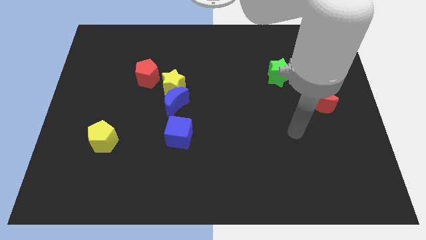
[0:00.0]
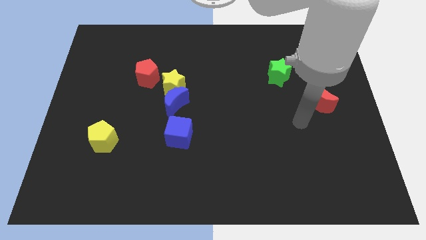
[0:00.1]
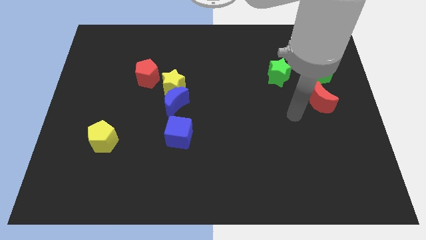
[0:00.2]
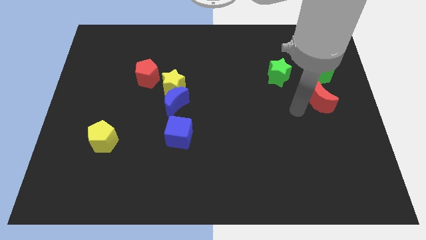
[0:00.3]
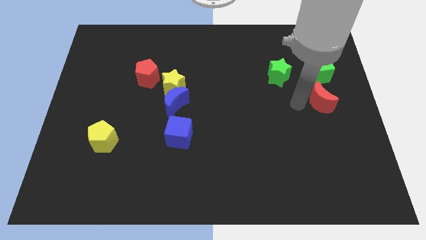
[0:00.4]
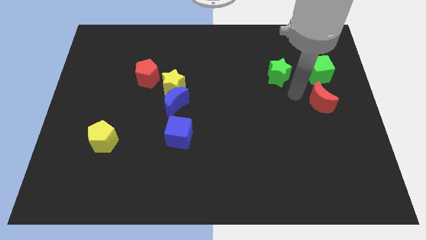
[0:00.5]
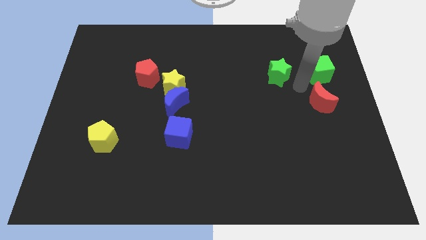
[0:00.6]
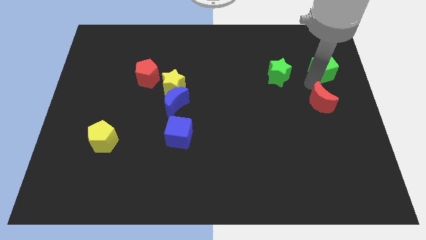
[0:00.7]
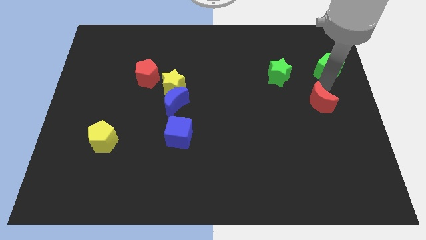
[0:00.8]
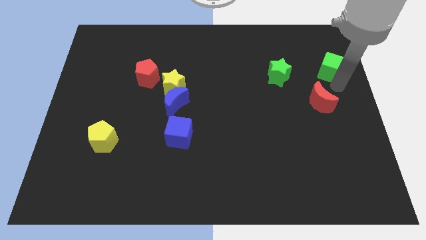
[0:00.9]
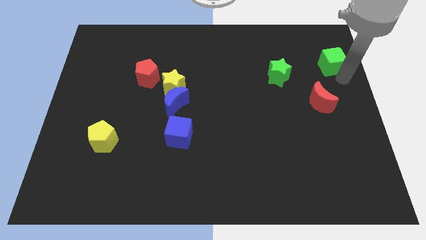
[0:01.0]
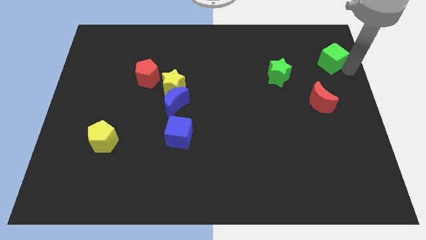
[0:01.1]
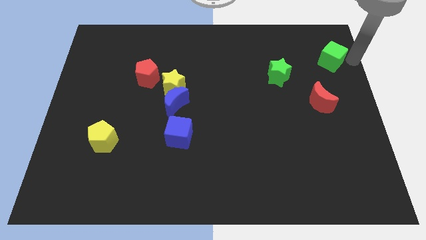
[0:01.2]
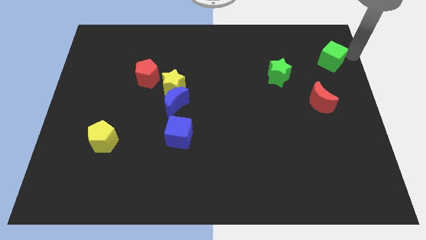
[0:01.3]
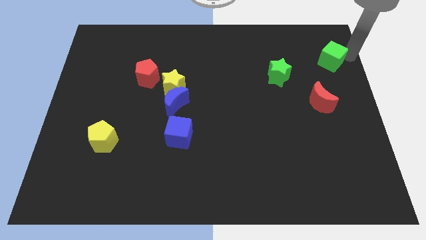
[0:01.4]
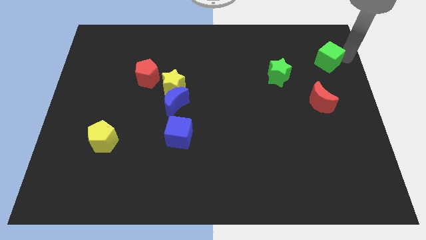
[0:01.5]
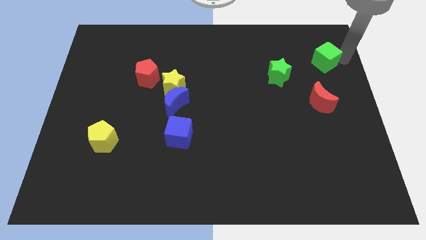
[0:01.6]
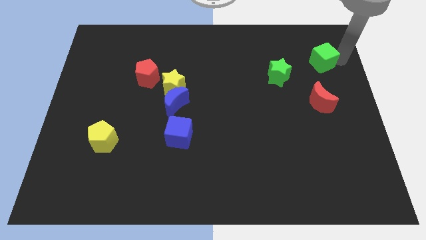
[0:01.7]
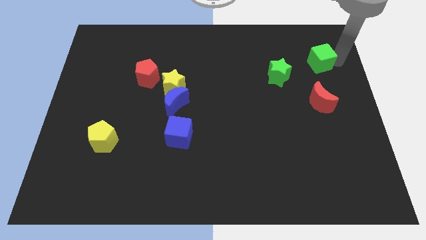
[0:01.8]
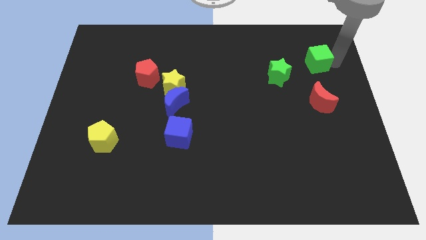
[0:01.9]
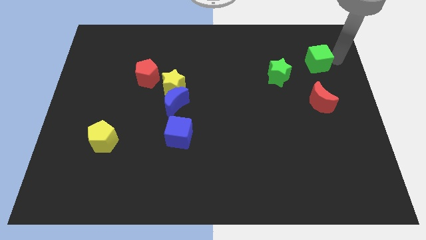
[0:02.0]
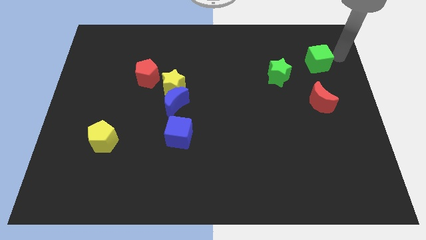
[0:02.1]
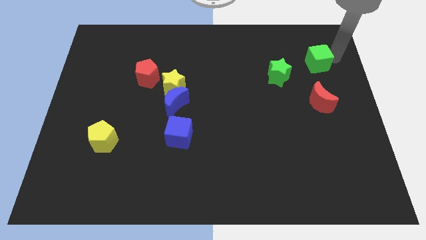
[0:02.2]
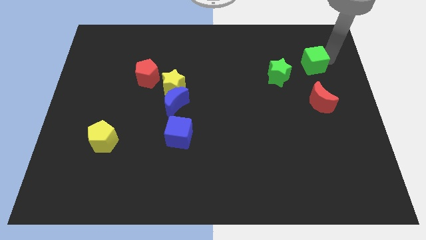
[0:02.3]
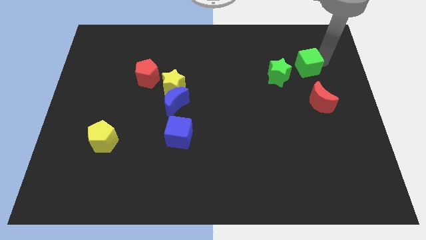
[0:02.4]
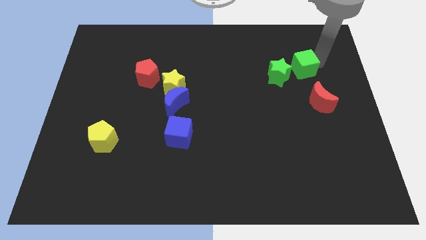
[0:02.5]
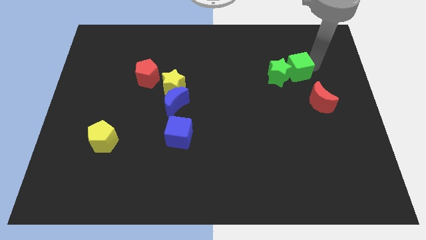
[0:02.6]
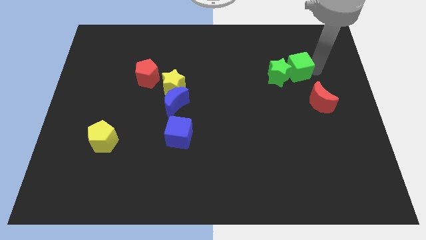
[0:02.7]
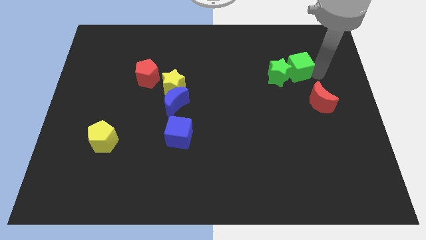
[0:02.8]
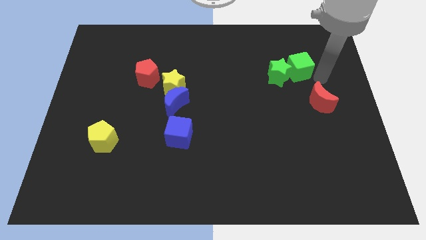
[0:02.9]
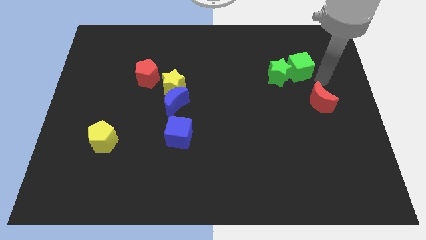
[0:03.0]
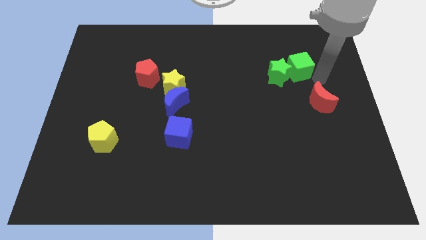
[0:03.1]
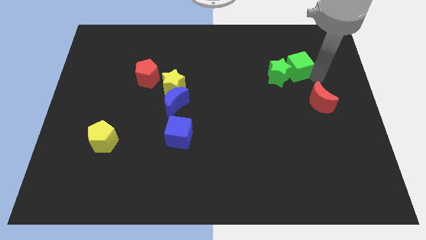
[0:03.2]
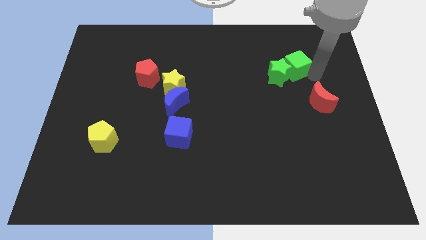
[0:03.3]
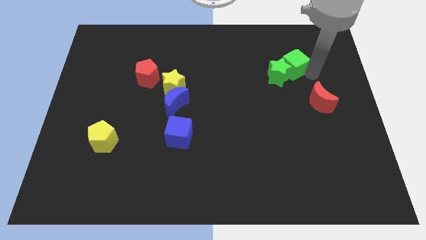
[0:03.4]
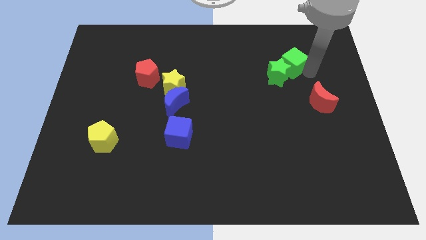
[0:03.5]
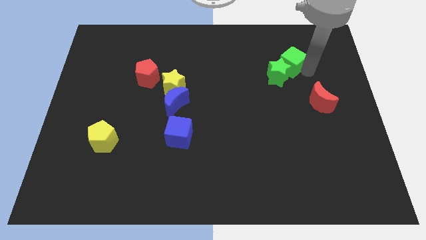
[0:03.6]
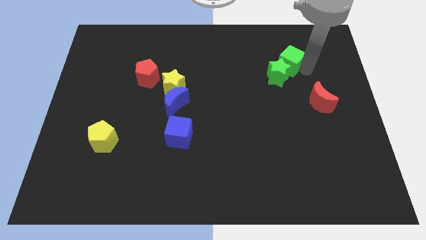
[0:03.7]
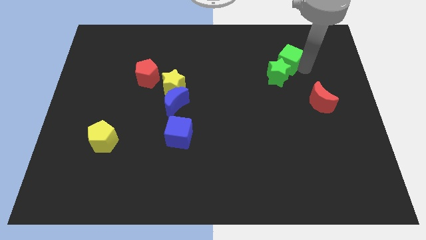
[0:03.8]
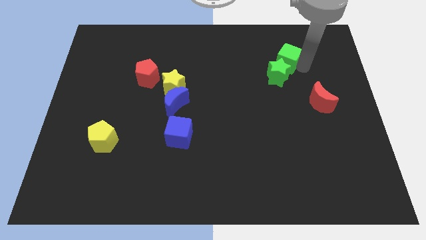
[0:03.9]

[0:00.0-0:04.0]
slightly slide the green cube left

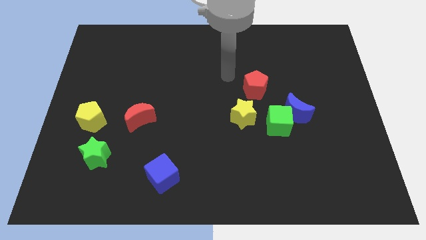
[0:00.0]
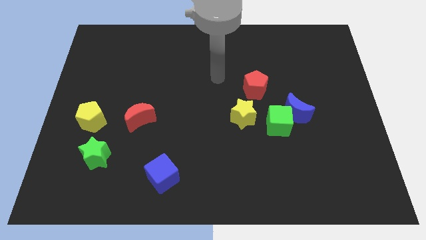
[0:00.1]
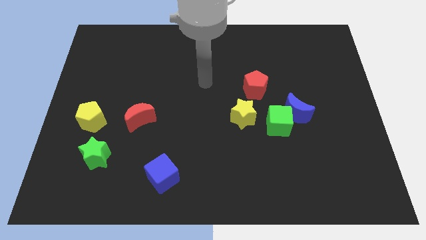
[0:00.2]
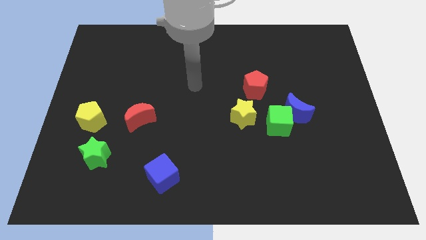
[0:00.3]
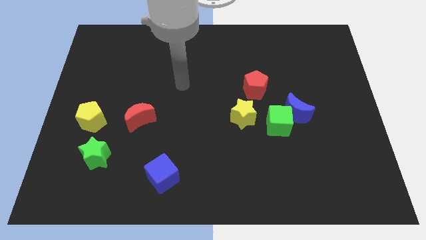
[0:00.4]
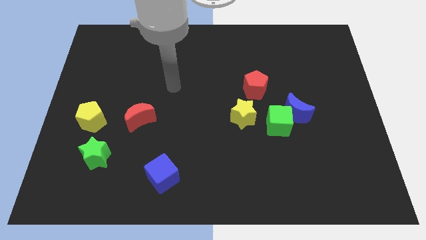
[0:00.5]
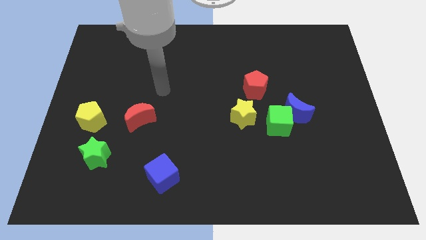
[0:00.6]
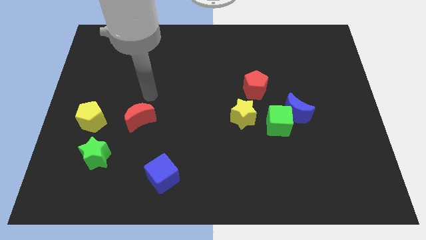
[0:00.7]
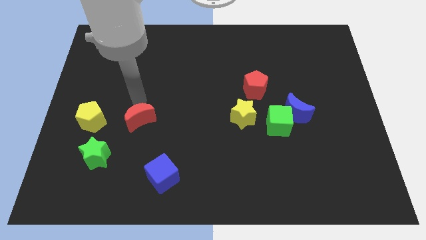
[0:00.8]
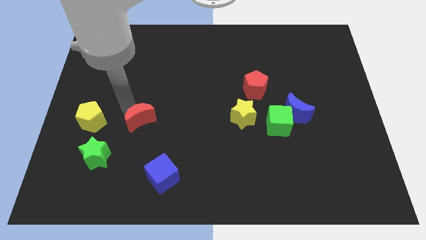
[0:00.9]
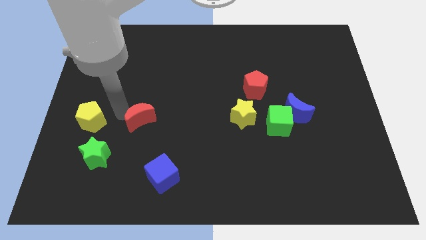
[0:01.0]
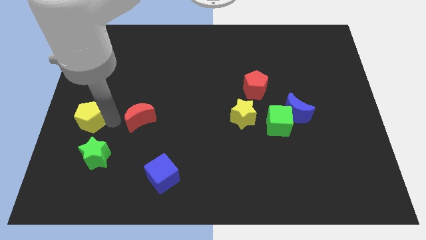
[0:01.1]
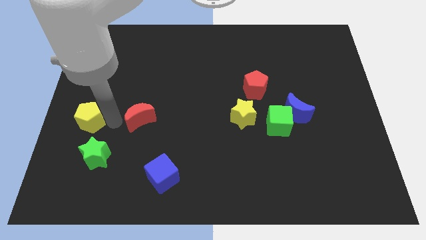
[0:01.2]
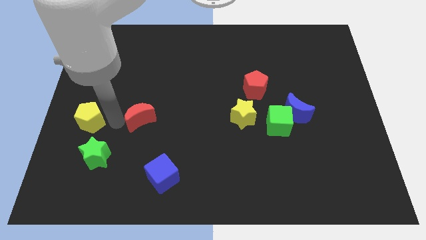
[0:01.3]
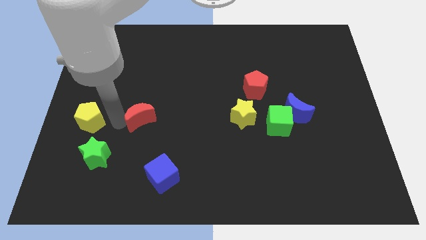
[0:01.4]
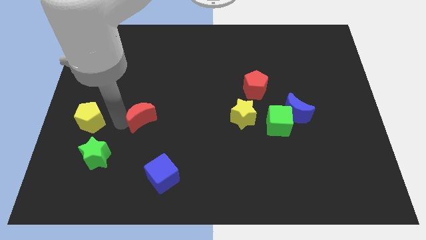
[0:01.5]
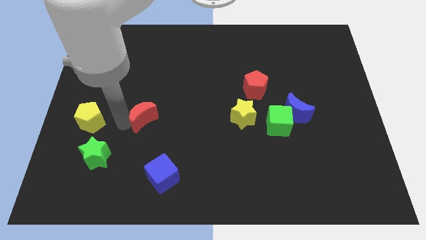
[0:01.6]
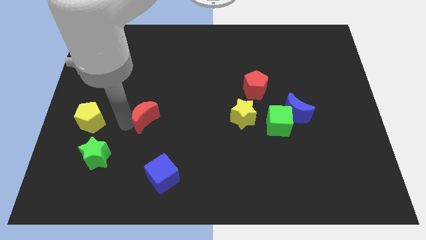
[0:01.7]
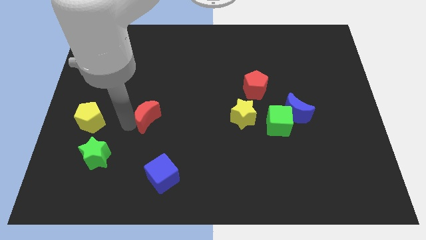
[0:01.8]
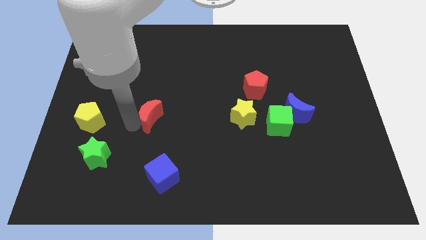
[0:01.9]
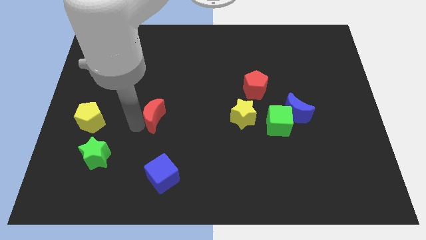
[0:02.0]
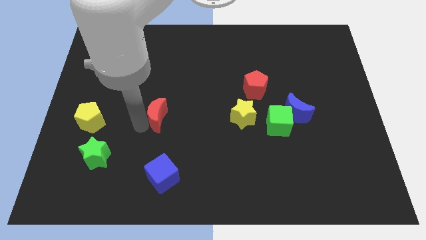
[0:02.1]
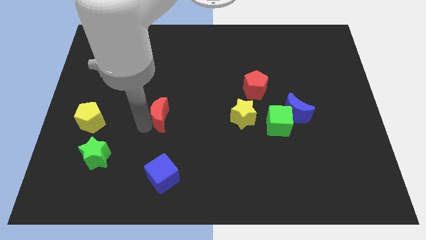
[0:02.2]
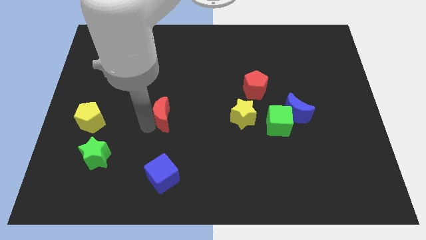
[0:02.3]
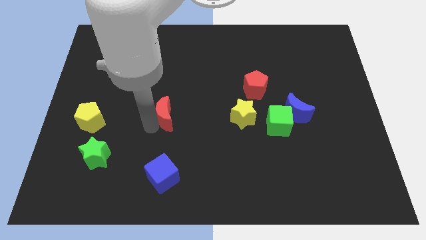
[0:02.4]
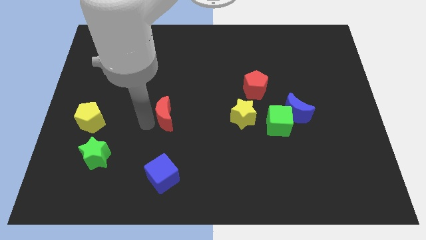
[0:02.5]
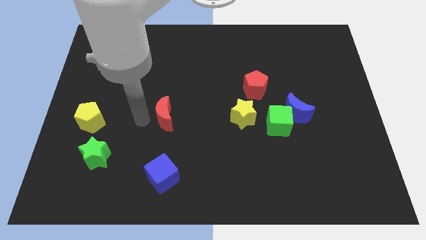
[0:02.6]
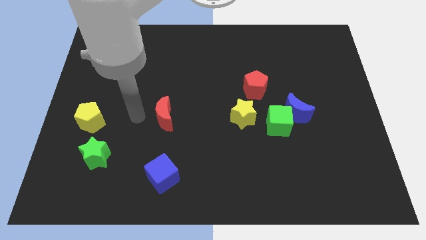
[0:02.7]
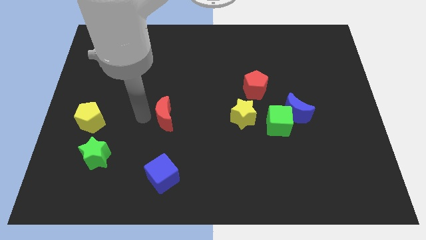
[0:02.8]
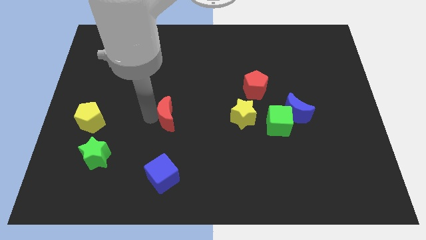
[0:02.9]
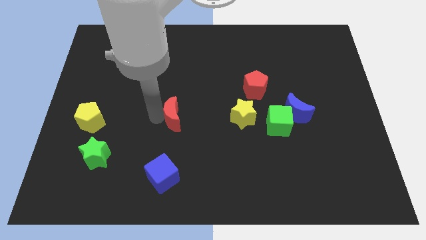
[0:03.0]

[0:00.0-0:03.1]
slightly move the red moon to the right

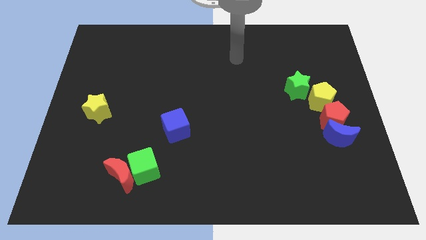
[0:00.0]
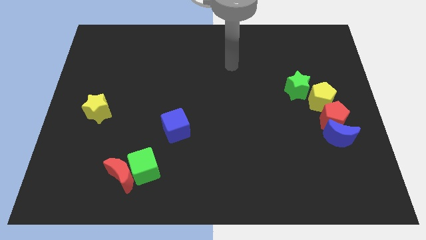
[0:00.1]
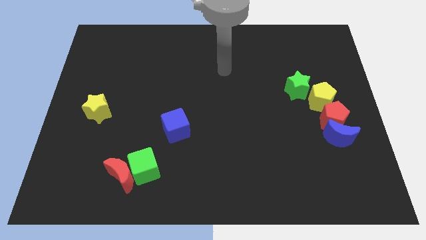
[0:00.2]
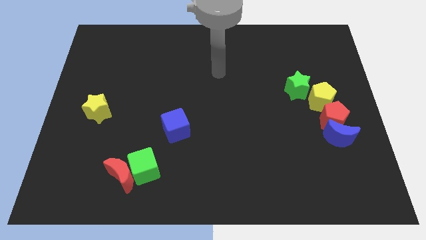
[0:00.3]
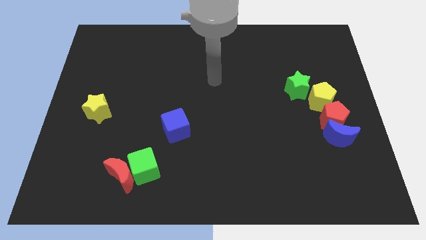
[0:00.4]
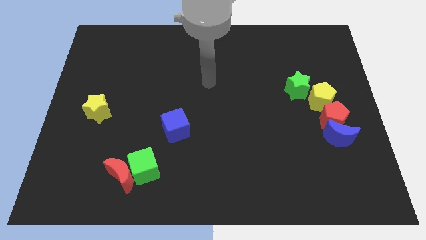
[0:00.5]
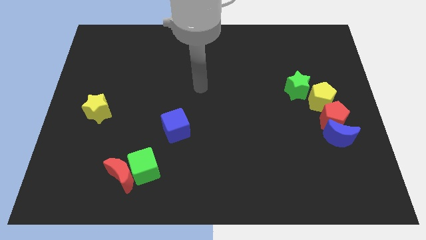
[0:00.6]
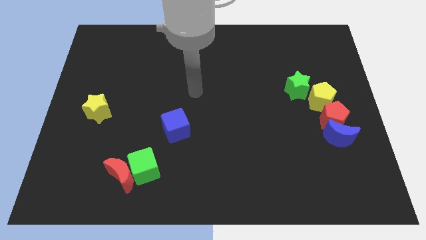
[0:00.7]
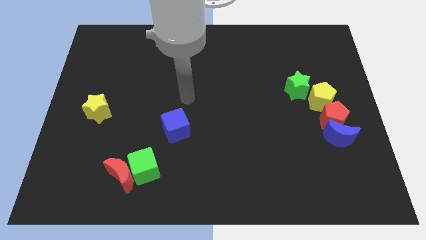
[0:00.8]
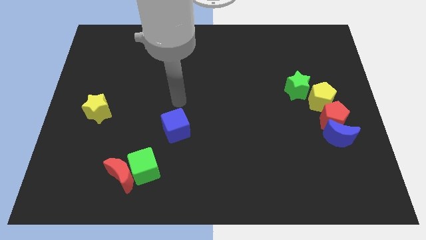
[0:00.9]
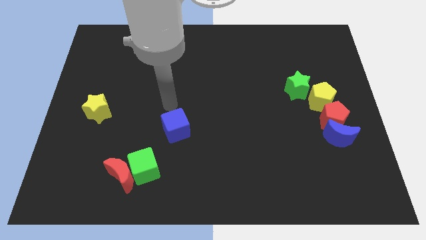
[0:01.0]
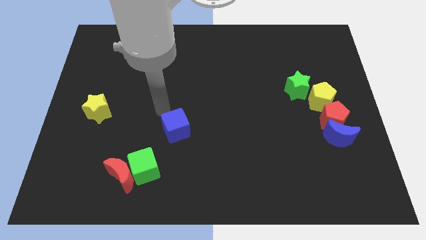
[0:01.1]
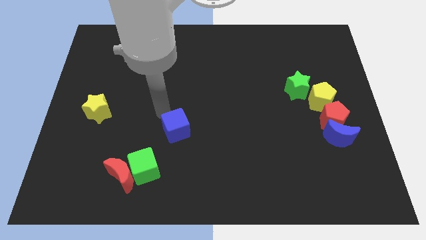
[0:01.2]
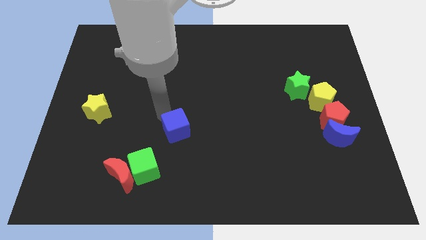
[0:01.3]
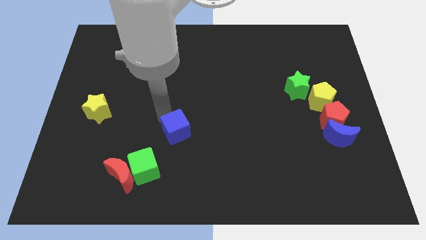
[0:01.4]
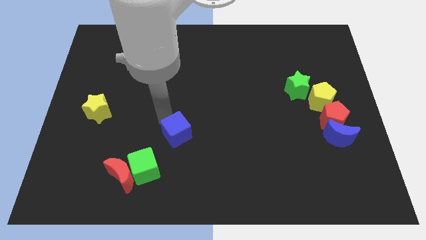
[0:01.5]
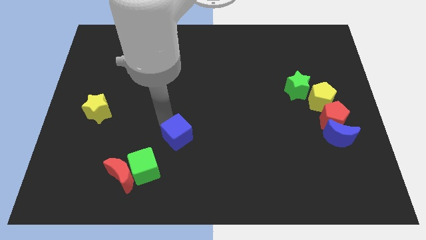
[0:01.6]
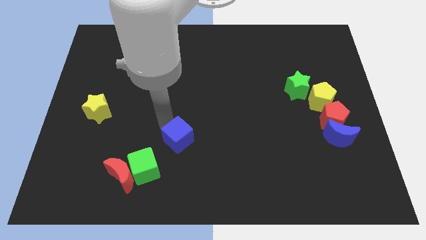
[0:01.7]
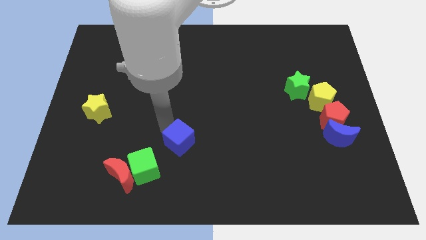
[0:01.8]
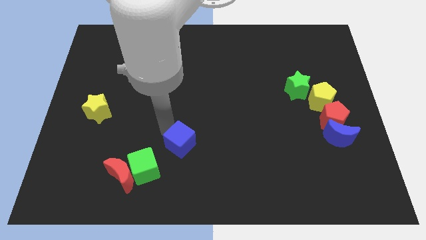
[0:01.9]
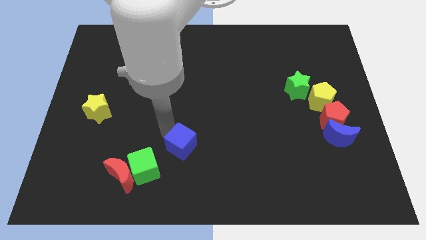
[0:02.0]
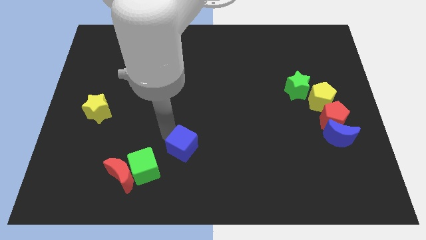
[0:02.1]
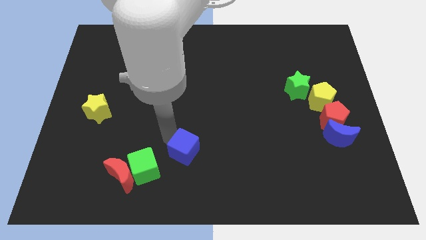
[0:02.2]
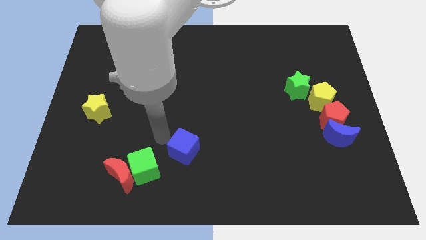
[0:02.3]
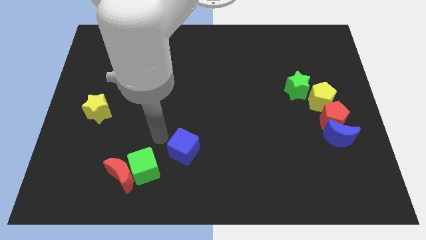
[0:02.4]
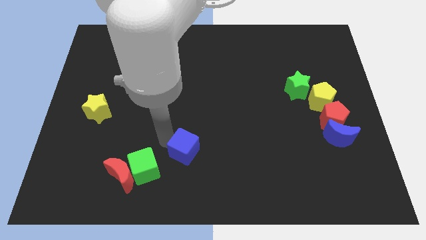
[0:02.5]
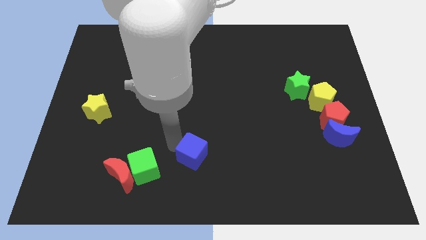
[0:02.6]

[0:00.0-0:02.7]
push the blue cube a little bit downwards and then right
